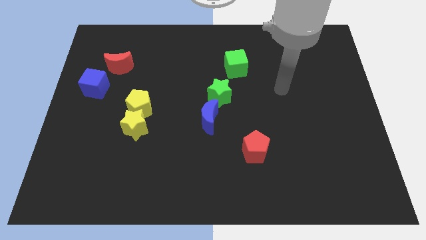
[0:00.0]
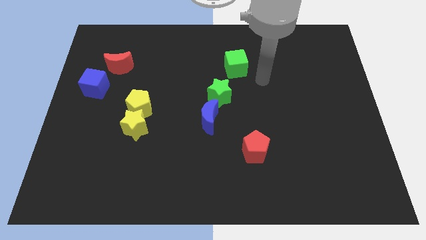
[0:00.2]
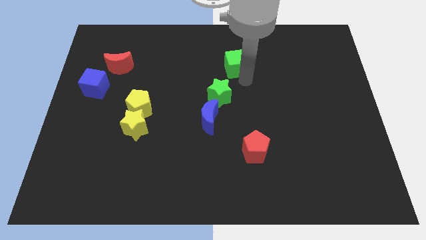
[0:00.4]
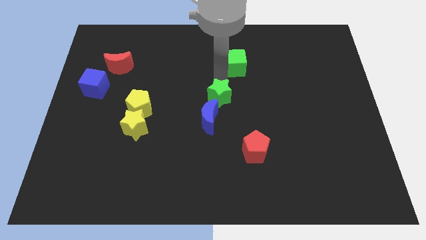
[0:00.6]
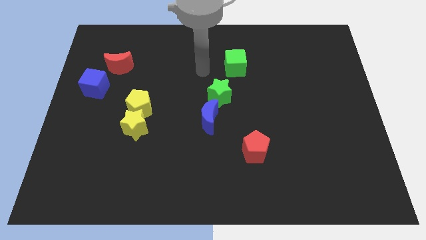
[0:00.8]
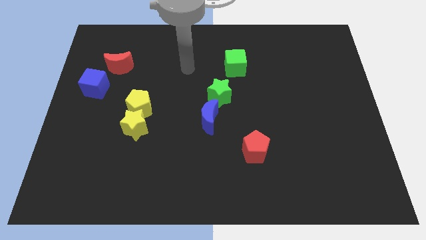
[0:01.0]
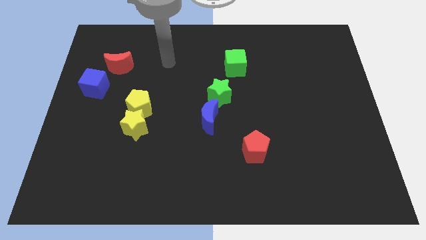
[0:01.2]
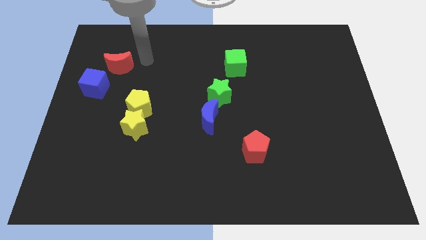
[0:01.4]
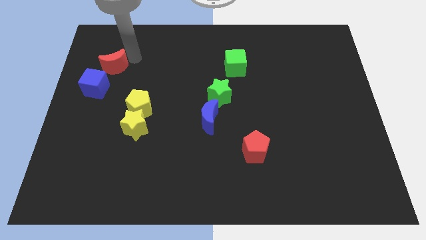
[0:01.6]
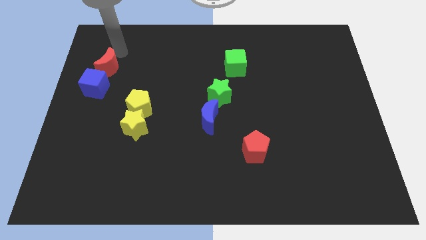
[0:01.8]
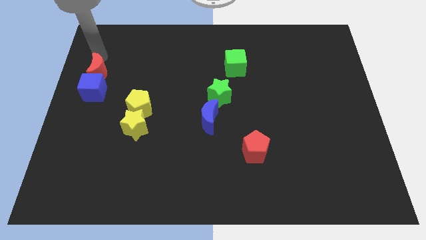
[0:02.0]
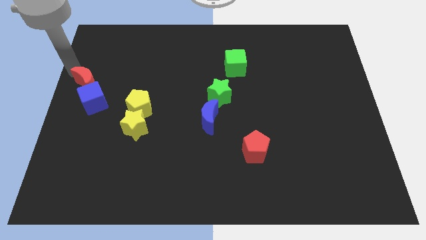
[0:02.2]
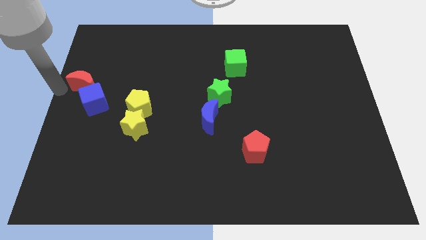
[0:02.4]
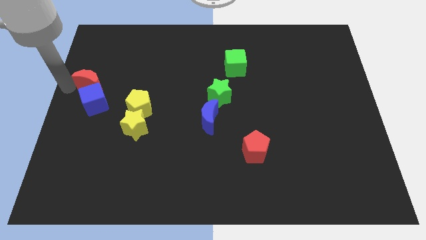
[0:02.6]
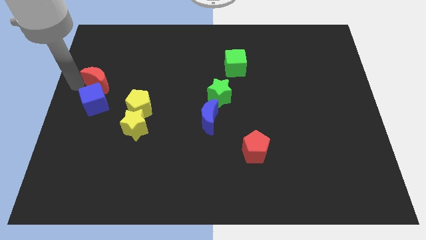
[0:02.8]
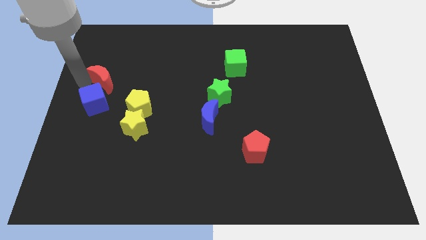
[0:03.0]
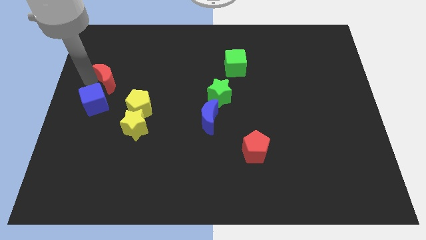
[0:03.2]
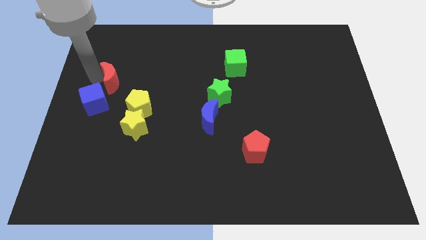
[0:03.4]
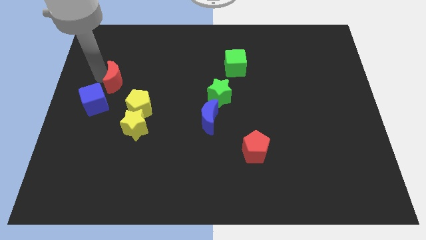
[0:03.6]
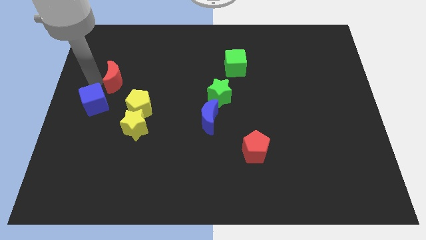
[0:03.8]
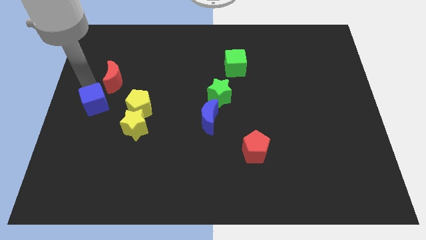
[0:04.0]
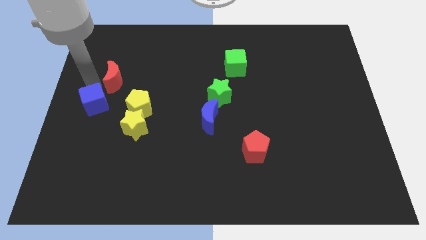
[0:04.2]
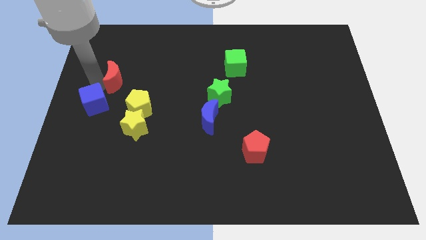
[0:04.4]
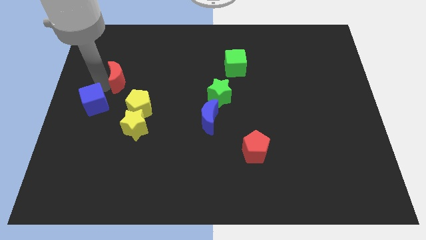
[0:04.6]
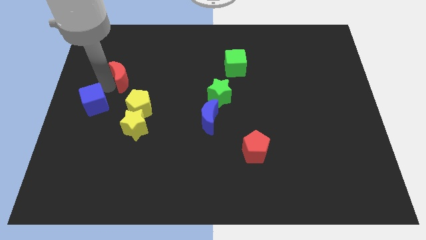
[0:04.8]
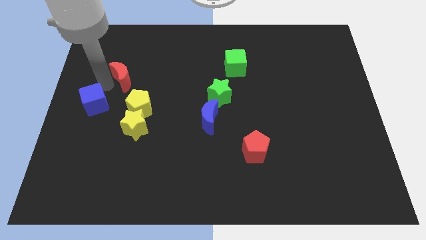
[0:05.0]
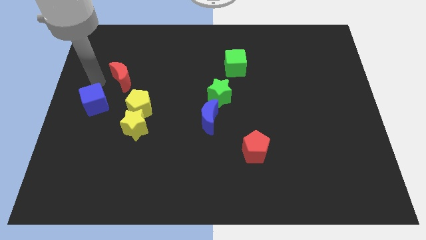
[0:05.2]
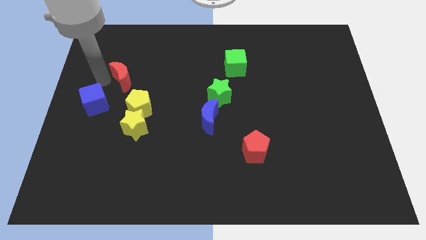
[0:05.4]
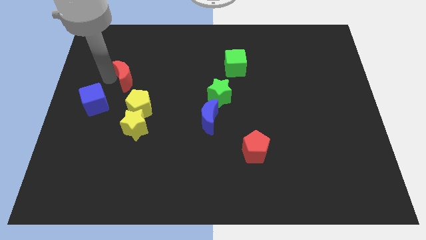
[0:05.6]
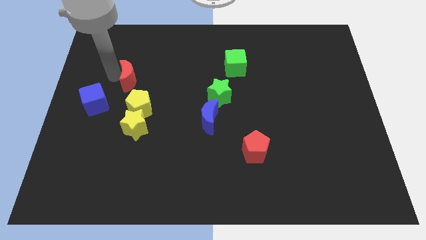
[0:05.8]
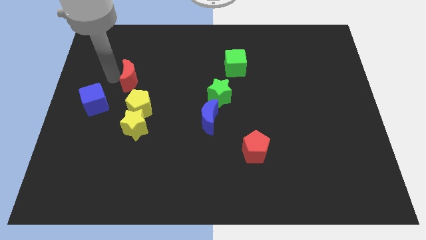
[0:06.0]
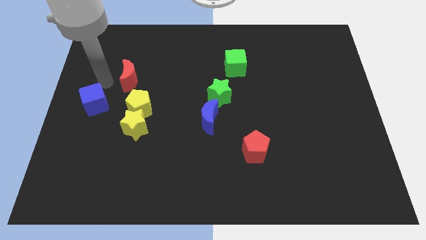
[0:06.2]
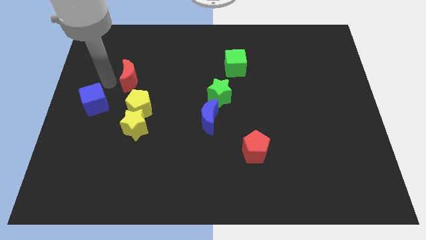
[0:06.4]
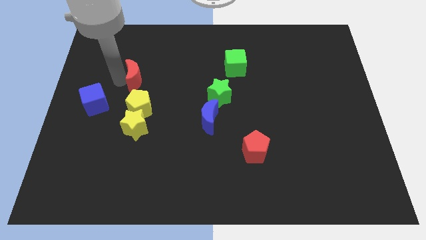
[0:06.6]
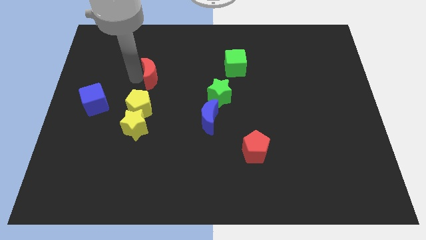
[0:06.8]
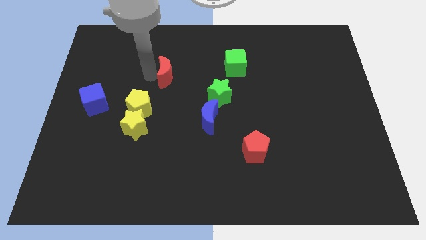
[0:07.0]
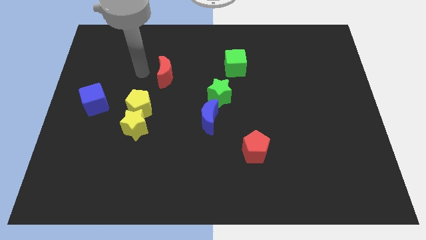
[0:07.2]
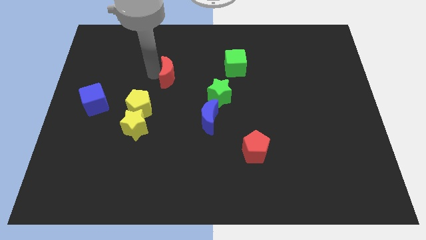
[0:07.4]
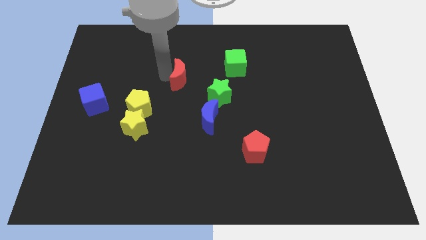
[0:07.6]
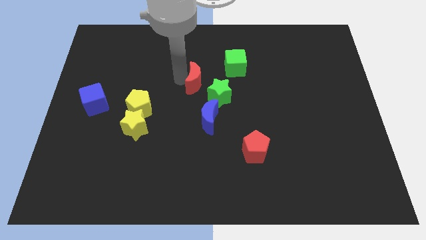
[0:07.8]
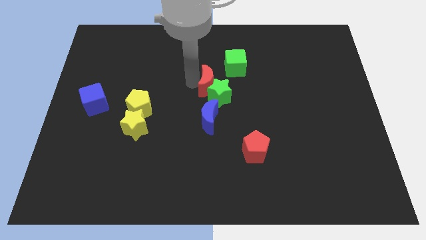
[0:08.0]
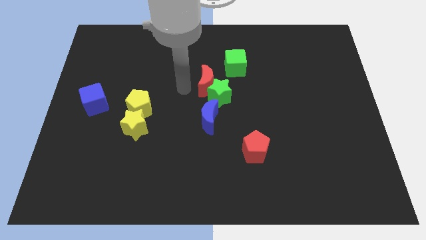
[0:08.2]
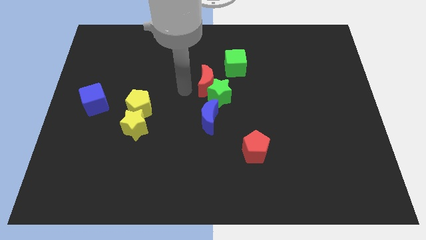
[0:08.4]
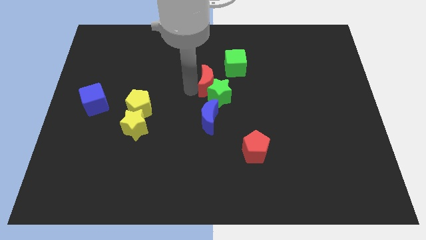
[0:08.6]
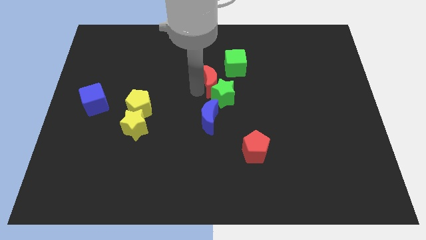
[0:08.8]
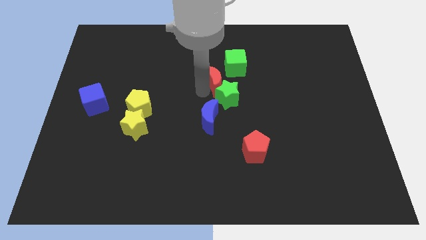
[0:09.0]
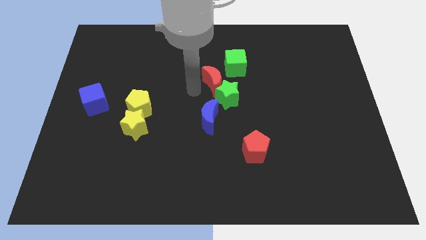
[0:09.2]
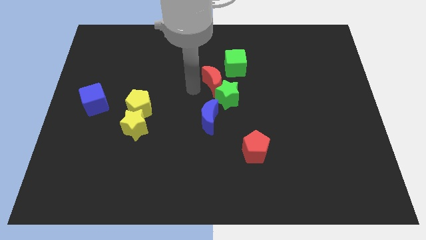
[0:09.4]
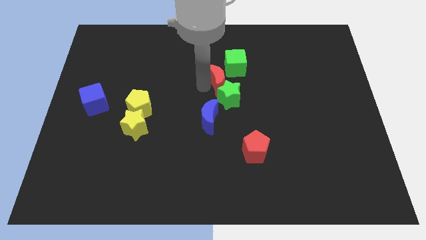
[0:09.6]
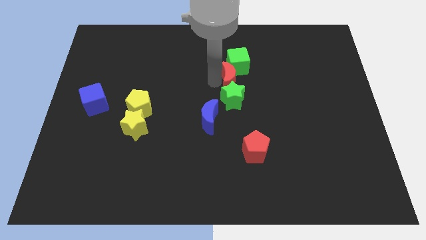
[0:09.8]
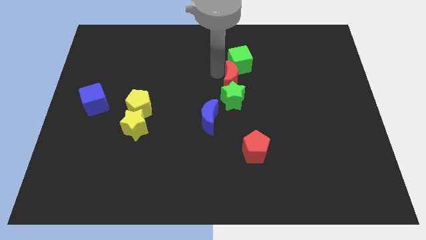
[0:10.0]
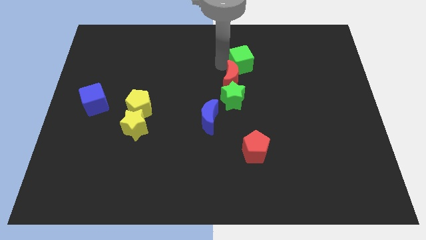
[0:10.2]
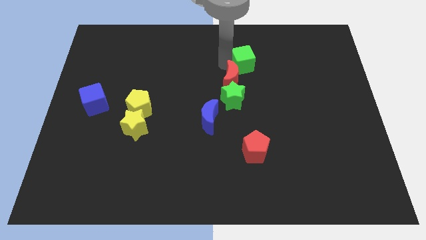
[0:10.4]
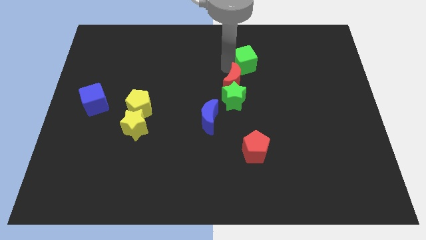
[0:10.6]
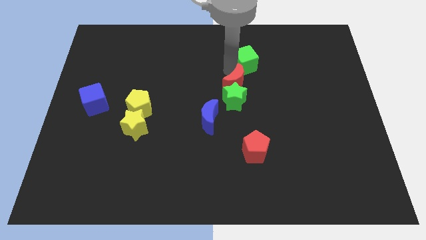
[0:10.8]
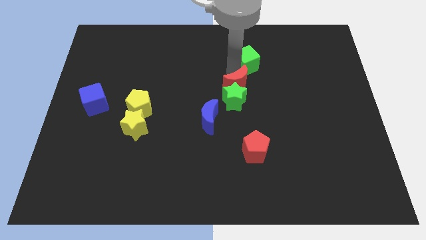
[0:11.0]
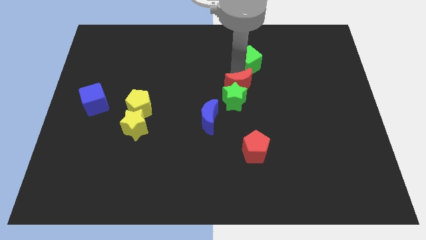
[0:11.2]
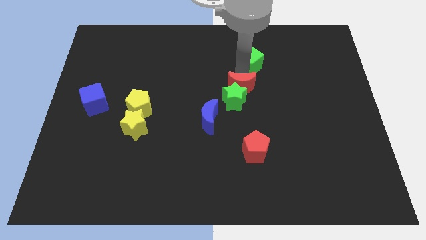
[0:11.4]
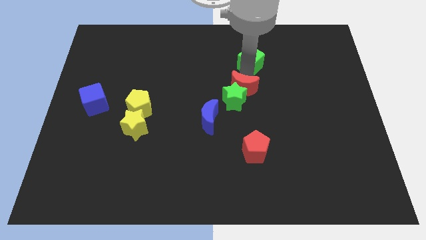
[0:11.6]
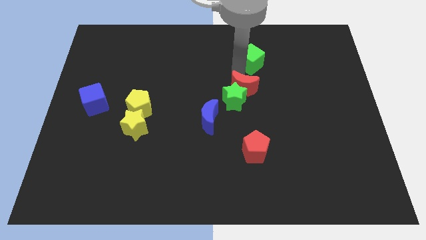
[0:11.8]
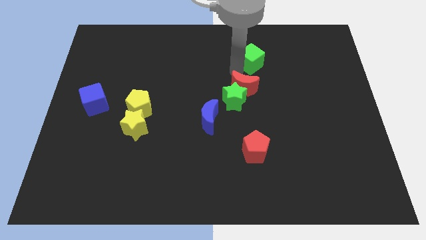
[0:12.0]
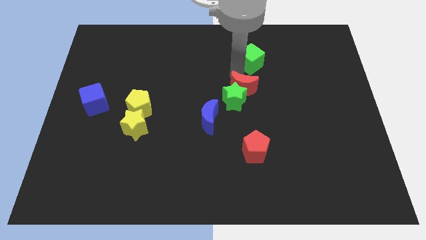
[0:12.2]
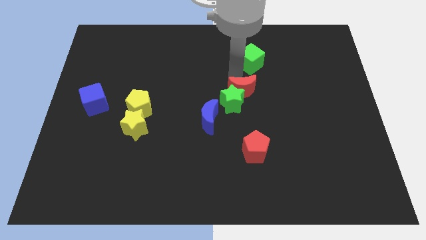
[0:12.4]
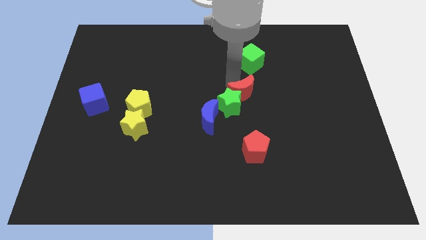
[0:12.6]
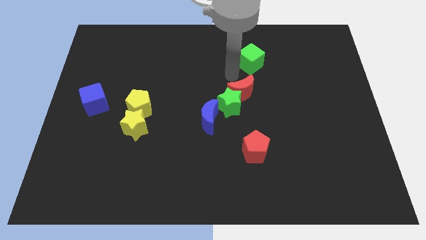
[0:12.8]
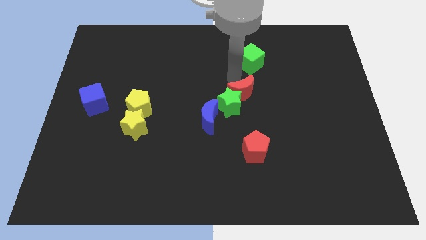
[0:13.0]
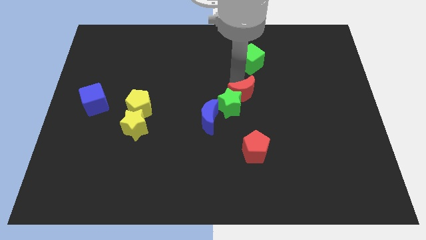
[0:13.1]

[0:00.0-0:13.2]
put the red moon above the red pentagon
